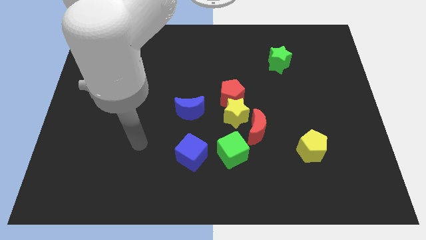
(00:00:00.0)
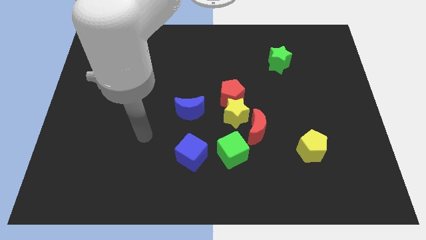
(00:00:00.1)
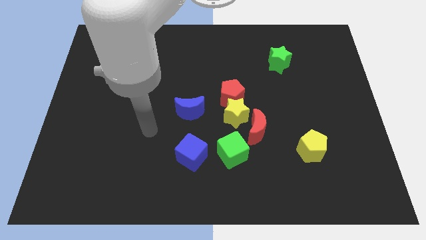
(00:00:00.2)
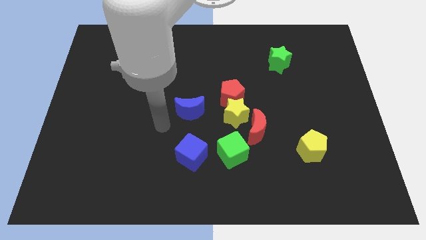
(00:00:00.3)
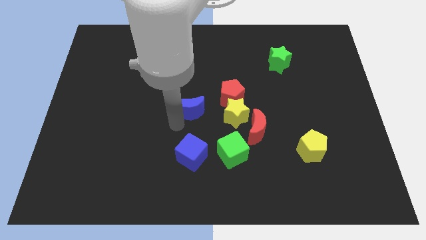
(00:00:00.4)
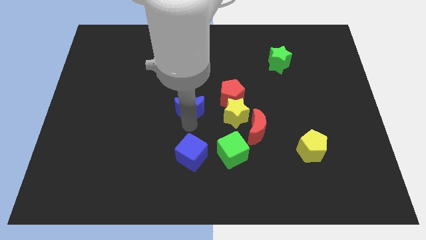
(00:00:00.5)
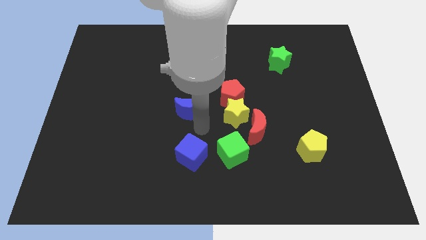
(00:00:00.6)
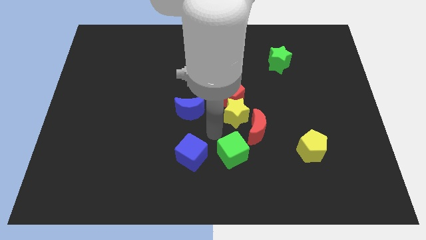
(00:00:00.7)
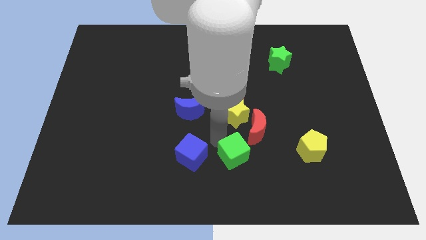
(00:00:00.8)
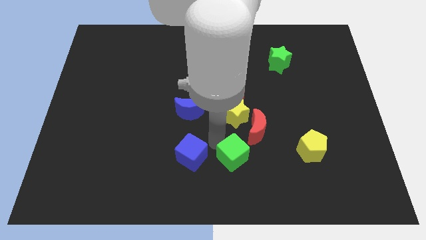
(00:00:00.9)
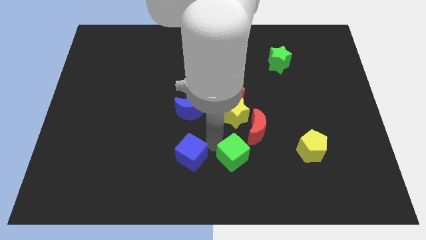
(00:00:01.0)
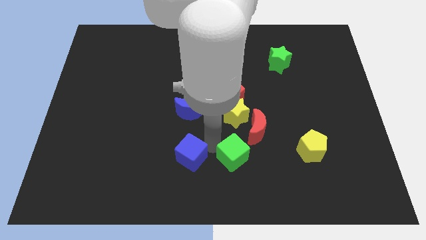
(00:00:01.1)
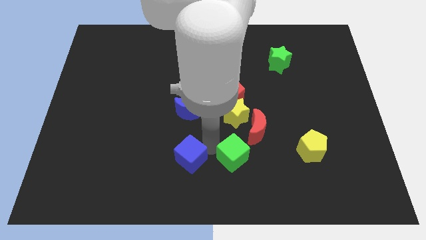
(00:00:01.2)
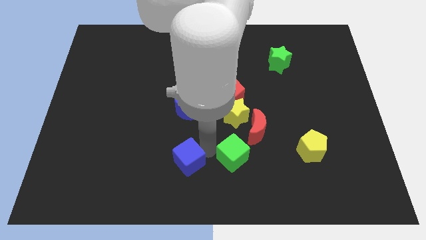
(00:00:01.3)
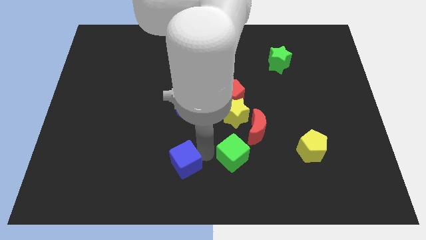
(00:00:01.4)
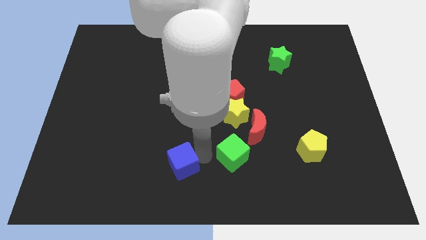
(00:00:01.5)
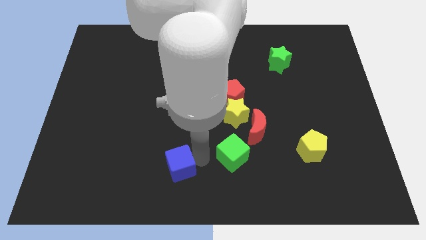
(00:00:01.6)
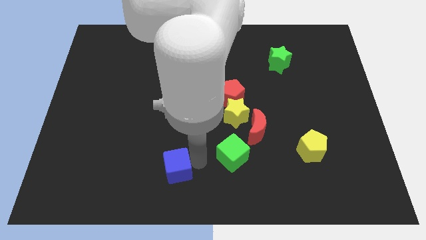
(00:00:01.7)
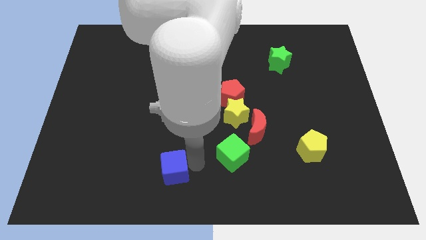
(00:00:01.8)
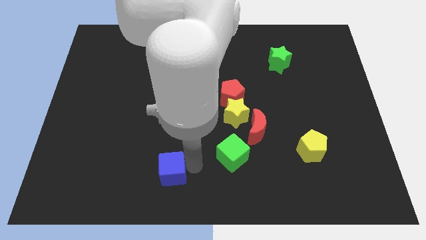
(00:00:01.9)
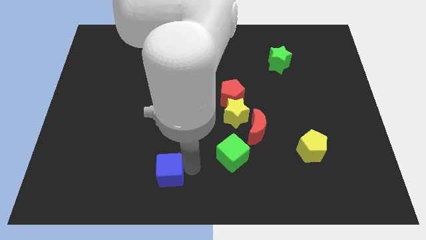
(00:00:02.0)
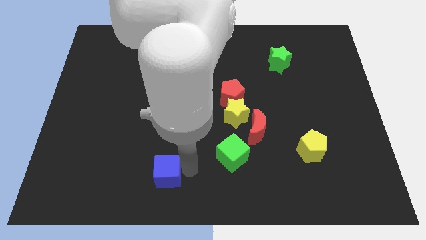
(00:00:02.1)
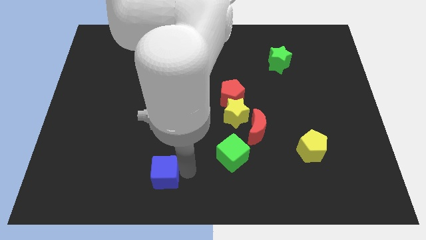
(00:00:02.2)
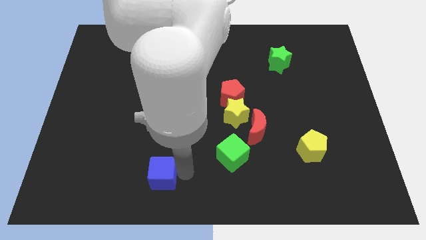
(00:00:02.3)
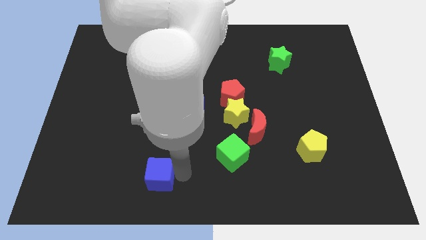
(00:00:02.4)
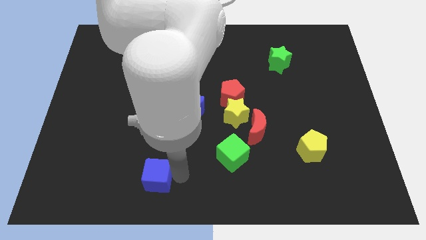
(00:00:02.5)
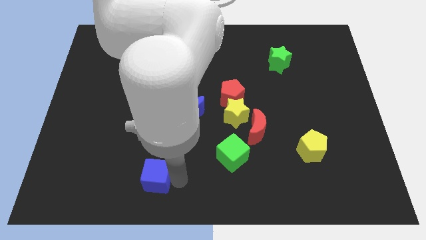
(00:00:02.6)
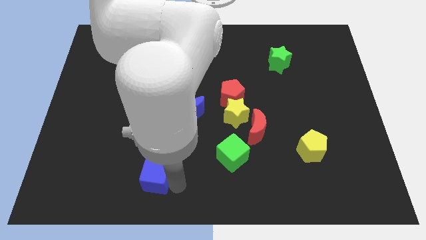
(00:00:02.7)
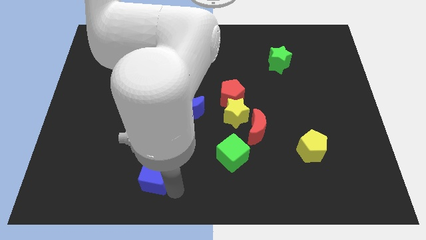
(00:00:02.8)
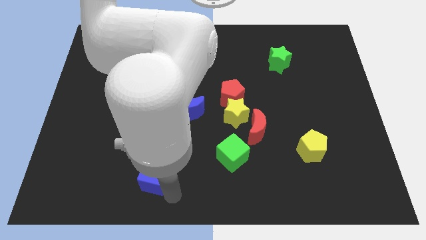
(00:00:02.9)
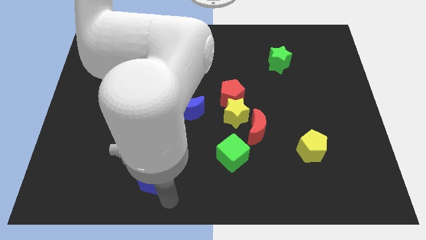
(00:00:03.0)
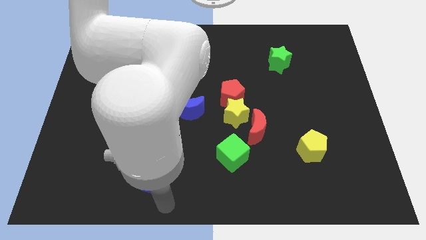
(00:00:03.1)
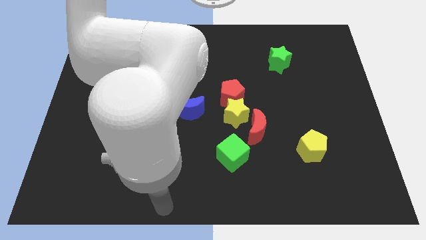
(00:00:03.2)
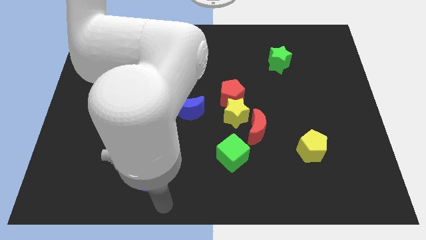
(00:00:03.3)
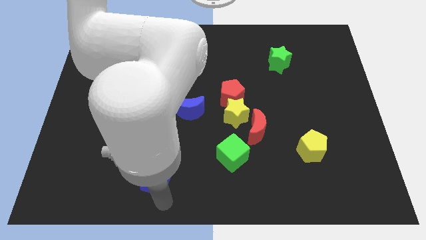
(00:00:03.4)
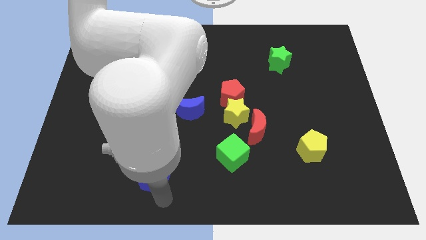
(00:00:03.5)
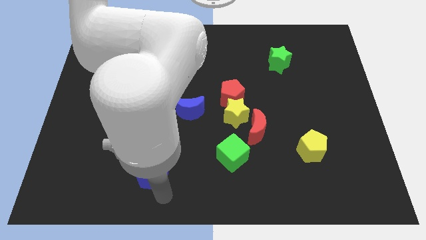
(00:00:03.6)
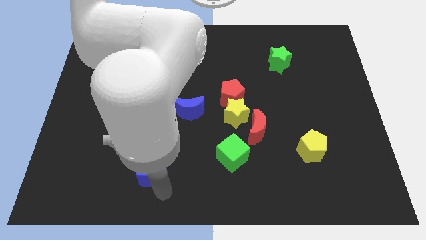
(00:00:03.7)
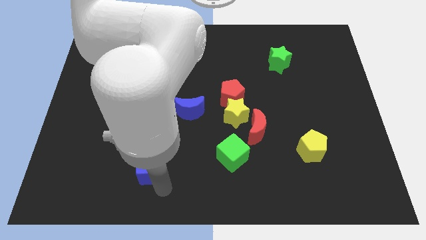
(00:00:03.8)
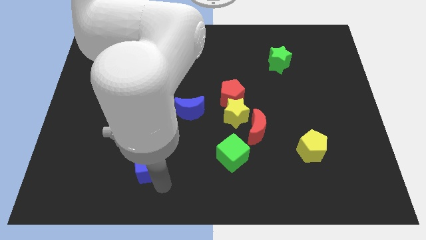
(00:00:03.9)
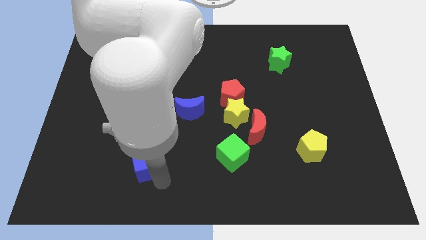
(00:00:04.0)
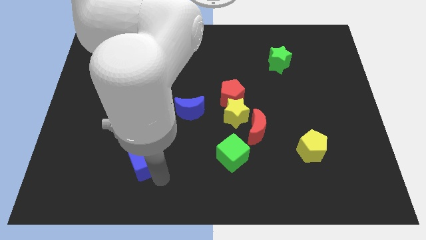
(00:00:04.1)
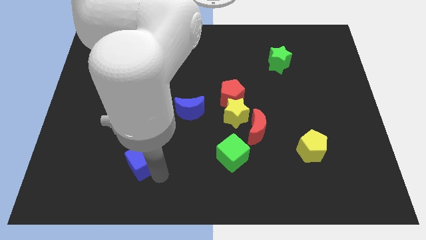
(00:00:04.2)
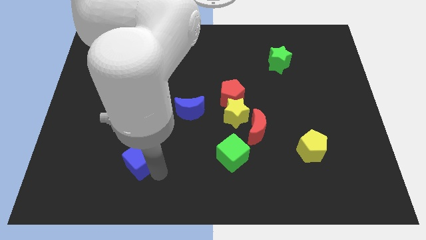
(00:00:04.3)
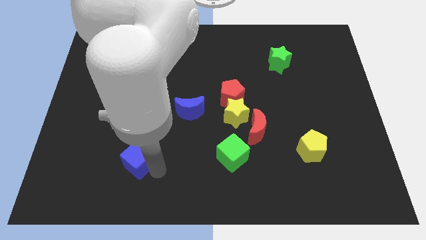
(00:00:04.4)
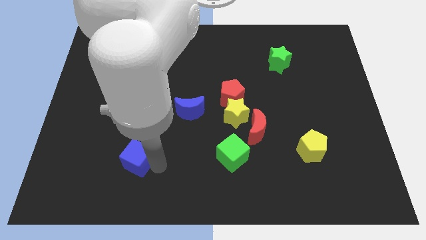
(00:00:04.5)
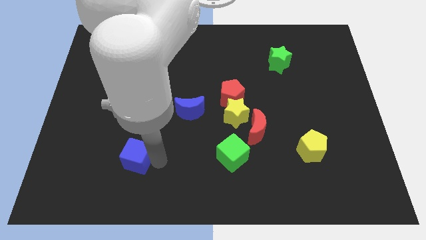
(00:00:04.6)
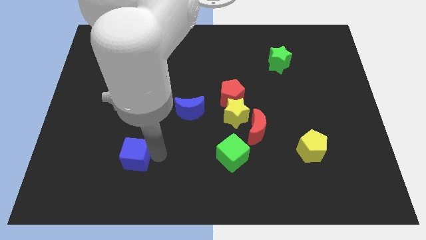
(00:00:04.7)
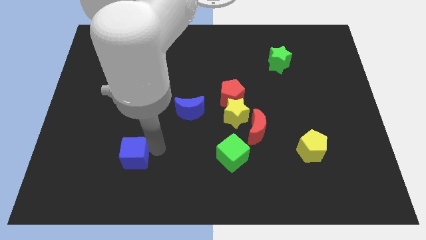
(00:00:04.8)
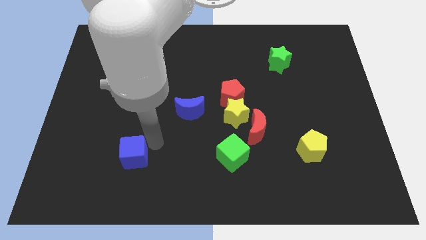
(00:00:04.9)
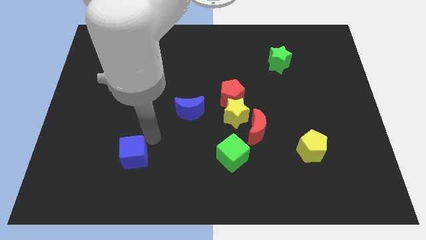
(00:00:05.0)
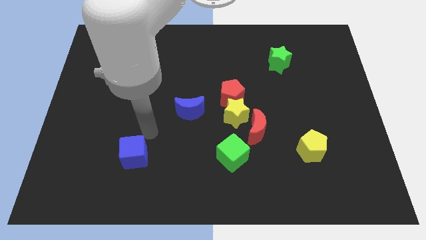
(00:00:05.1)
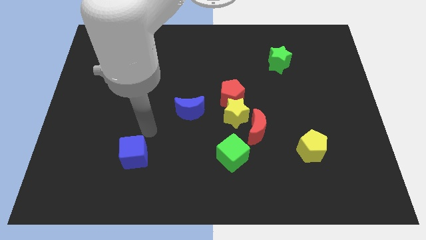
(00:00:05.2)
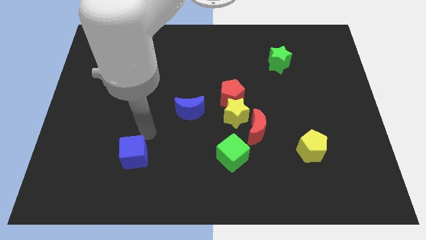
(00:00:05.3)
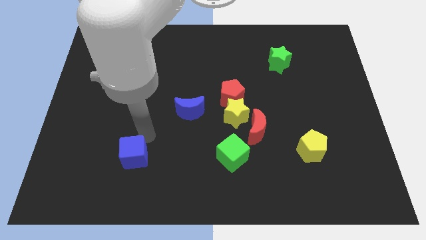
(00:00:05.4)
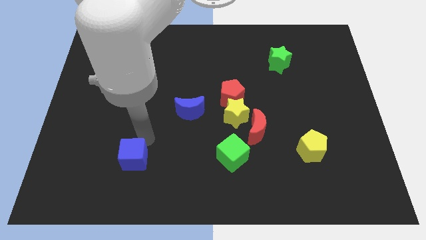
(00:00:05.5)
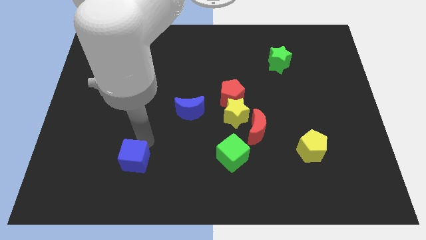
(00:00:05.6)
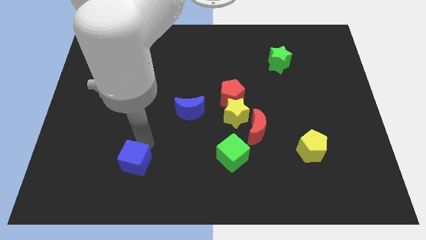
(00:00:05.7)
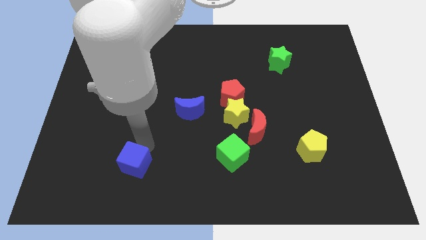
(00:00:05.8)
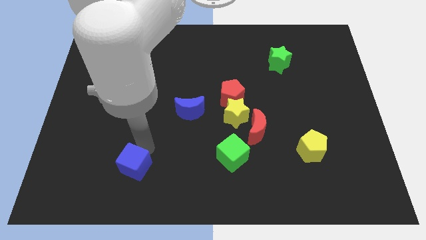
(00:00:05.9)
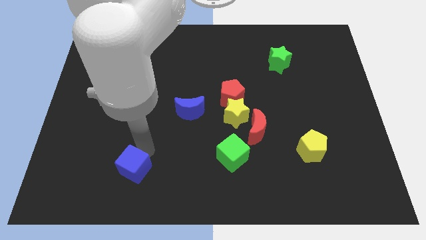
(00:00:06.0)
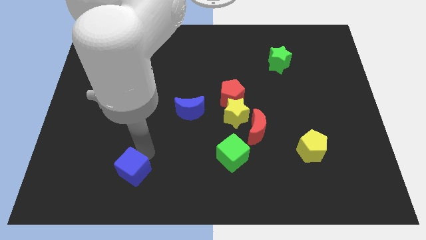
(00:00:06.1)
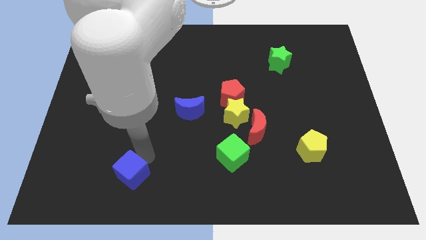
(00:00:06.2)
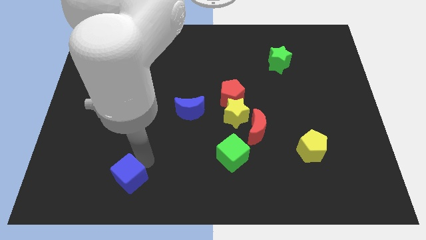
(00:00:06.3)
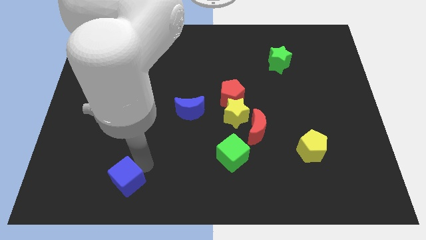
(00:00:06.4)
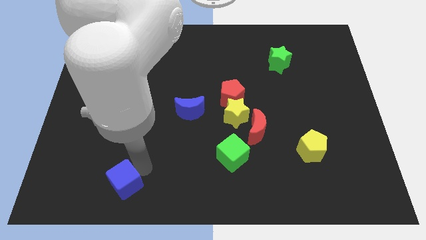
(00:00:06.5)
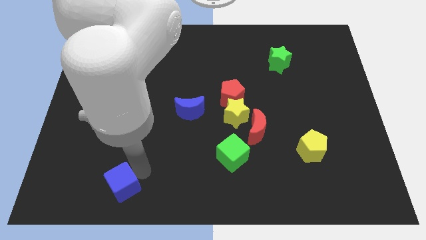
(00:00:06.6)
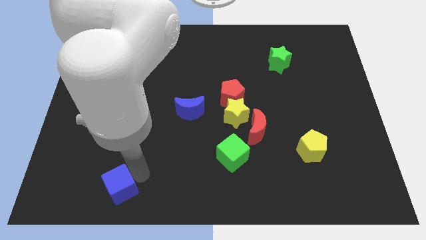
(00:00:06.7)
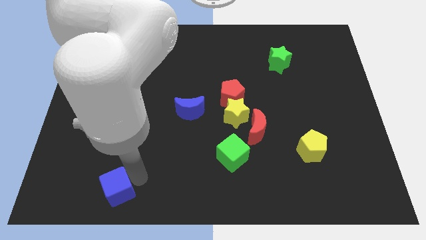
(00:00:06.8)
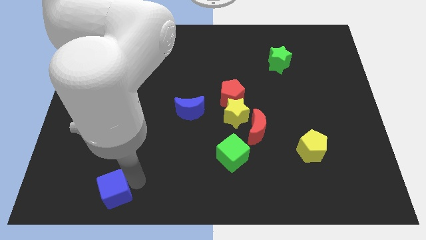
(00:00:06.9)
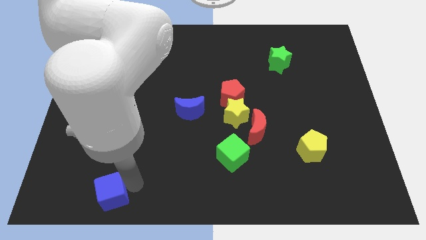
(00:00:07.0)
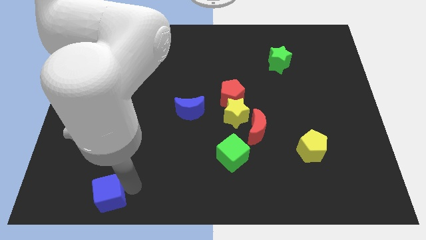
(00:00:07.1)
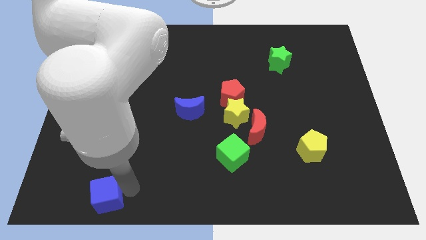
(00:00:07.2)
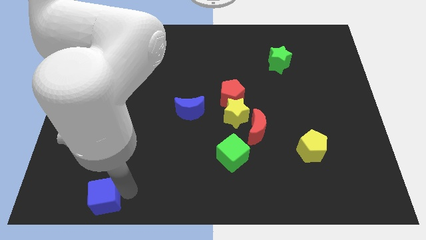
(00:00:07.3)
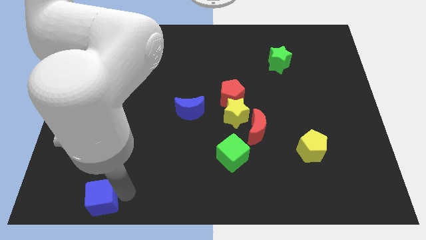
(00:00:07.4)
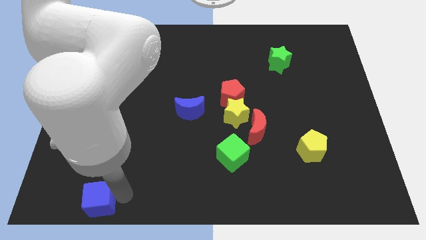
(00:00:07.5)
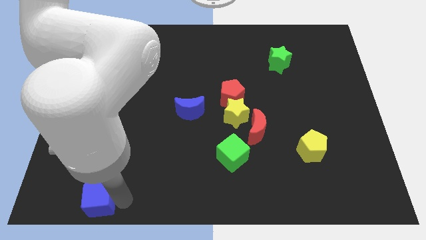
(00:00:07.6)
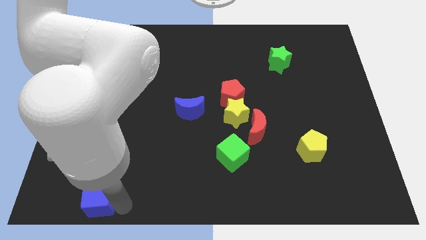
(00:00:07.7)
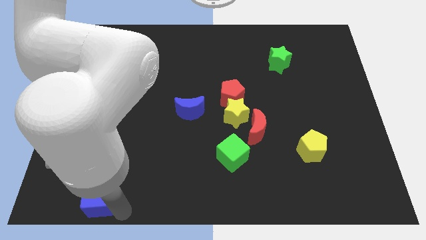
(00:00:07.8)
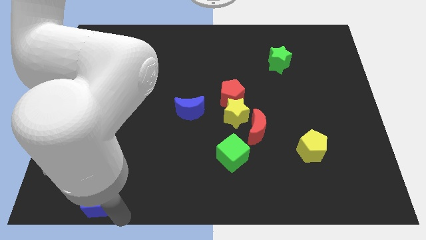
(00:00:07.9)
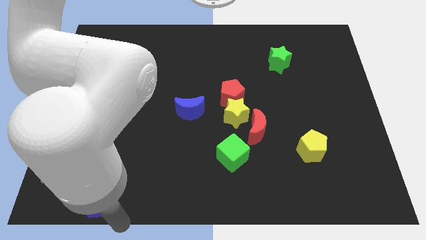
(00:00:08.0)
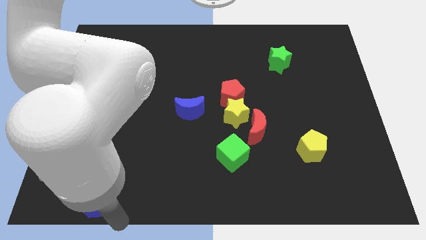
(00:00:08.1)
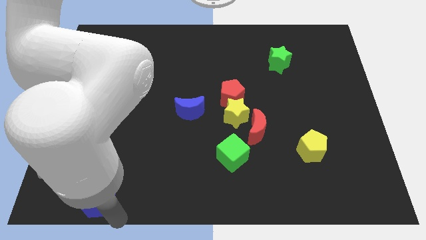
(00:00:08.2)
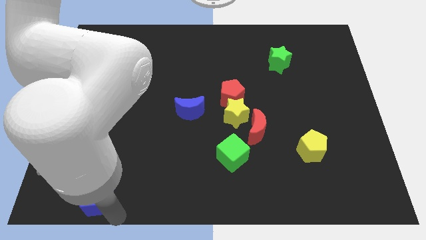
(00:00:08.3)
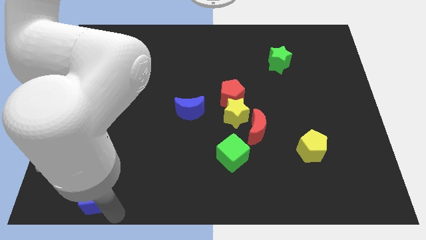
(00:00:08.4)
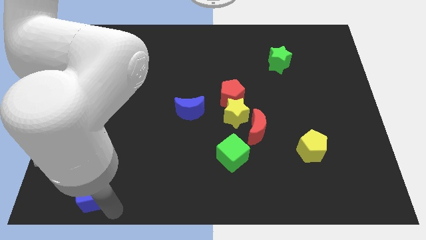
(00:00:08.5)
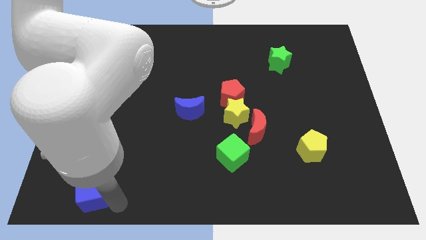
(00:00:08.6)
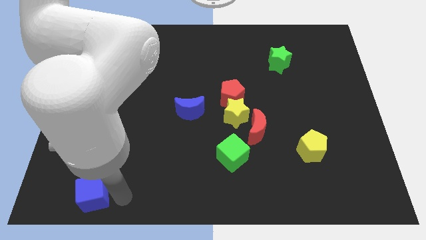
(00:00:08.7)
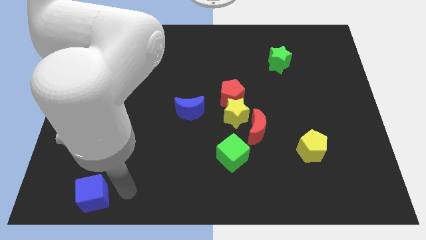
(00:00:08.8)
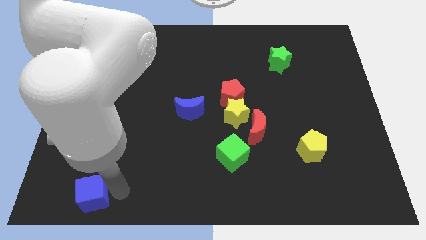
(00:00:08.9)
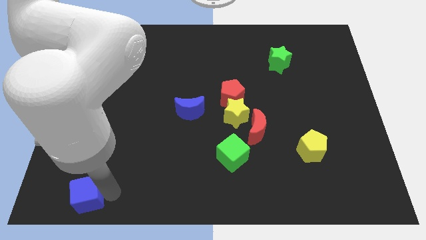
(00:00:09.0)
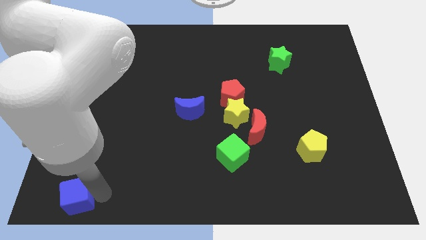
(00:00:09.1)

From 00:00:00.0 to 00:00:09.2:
put the blue cube to the bottom left
